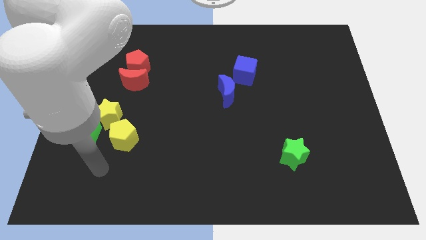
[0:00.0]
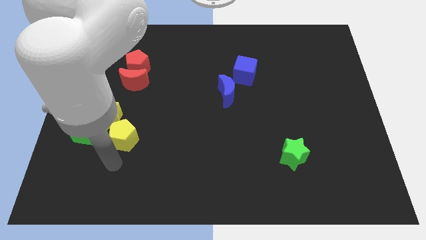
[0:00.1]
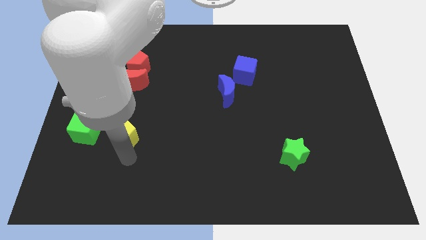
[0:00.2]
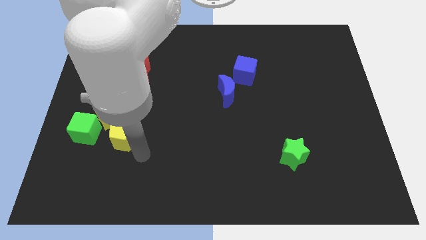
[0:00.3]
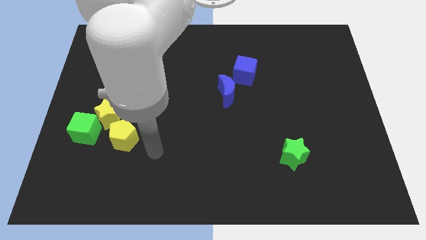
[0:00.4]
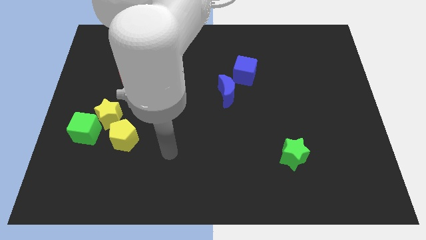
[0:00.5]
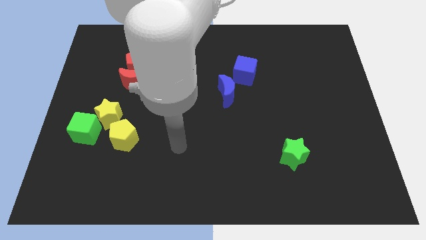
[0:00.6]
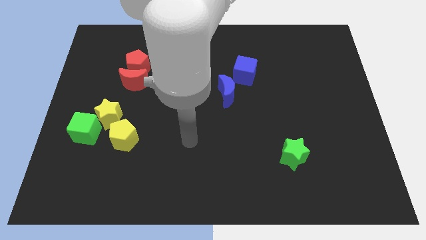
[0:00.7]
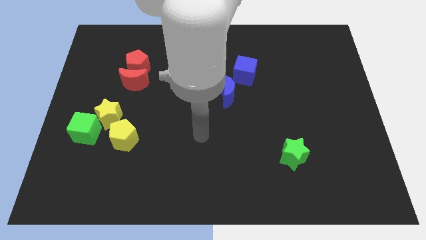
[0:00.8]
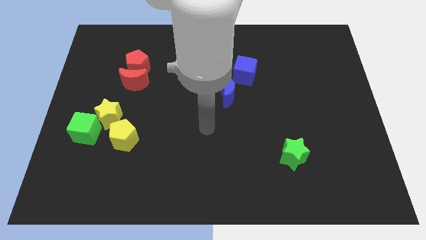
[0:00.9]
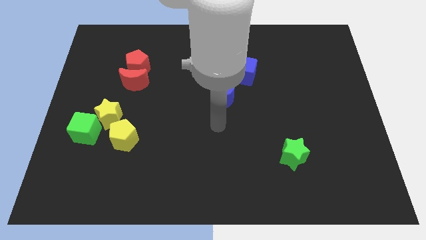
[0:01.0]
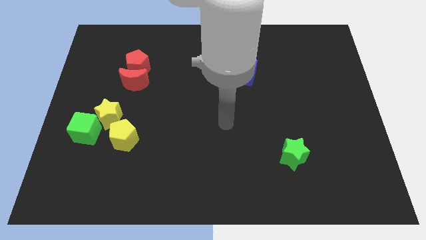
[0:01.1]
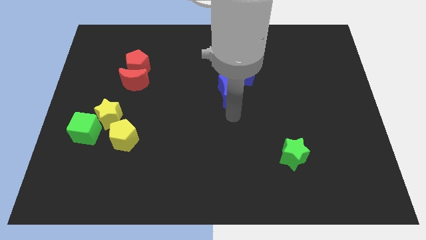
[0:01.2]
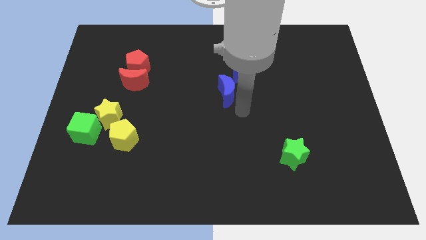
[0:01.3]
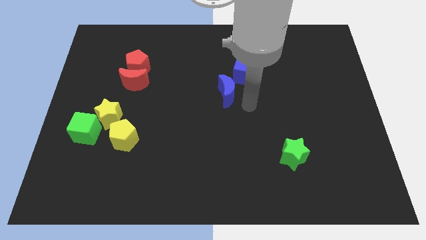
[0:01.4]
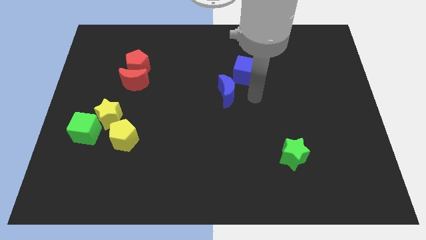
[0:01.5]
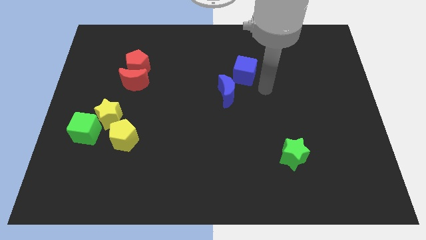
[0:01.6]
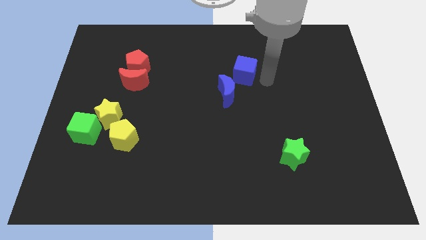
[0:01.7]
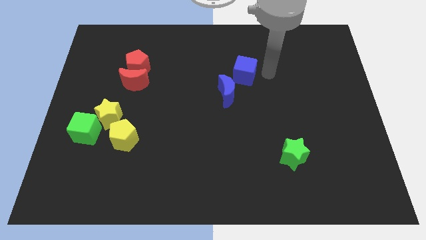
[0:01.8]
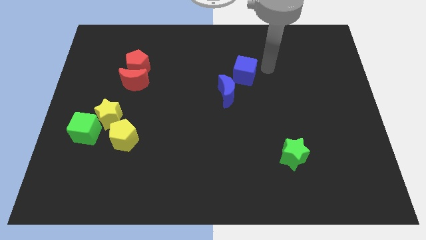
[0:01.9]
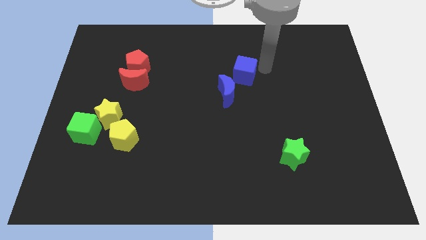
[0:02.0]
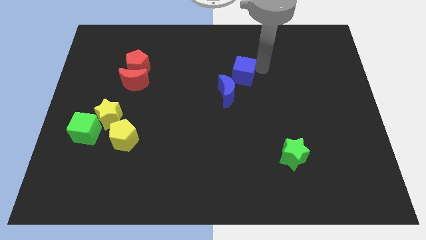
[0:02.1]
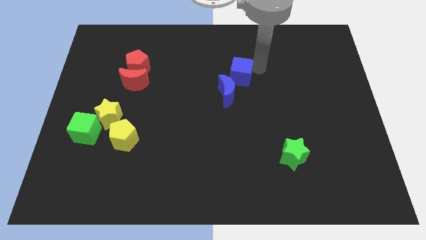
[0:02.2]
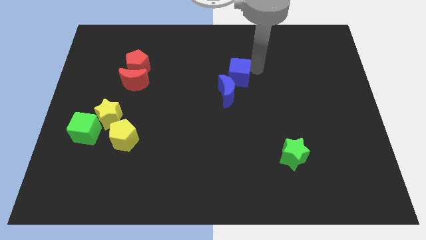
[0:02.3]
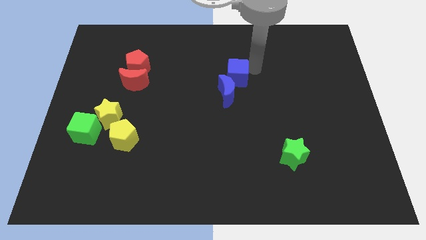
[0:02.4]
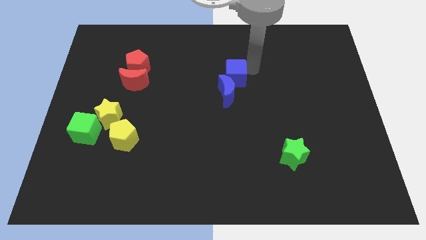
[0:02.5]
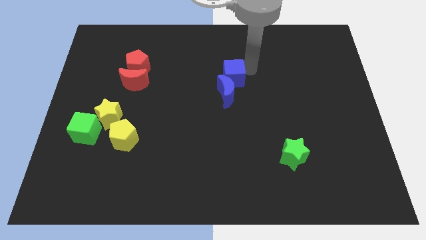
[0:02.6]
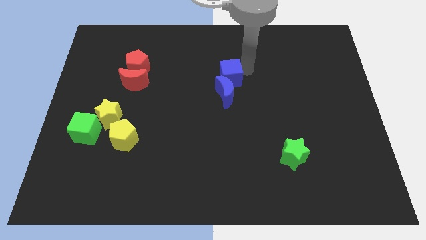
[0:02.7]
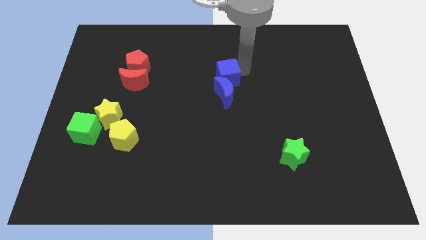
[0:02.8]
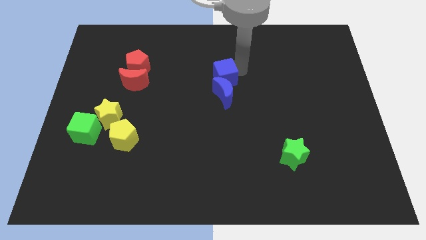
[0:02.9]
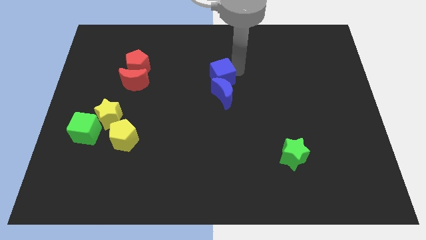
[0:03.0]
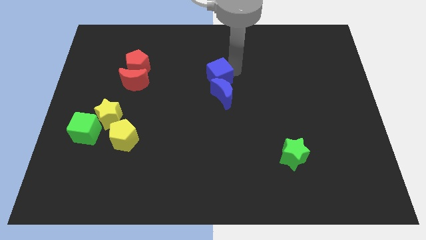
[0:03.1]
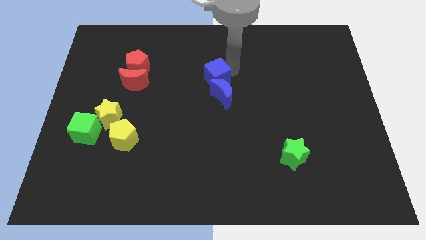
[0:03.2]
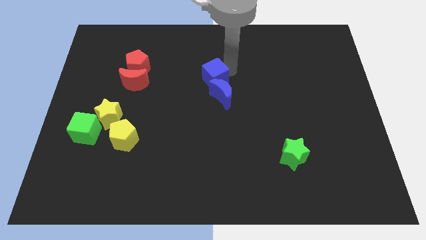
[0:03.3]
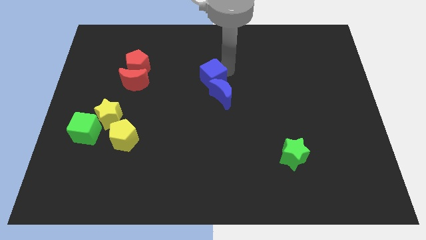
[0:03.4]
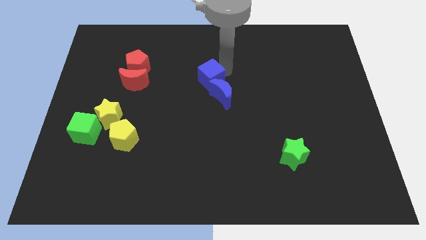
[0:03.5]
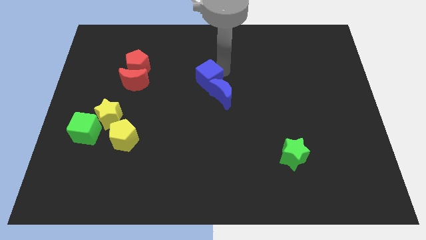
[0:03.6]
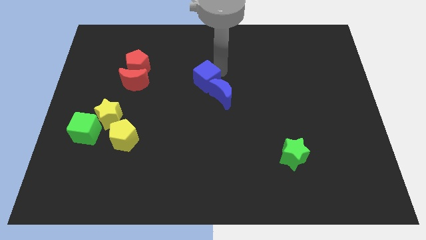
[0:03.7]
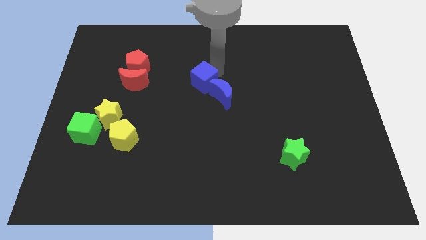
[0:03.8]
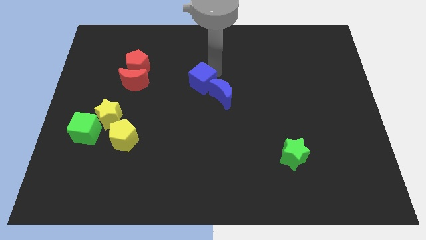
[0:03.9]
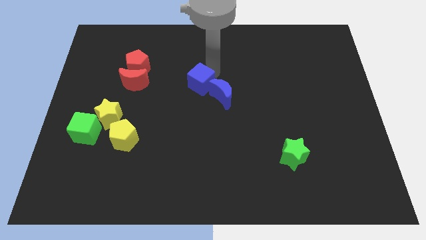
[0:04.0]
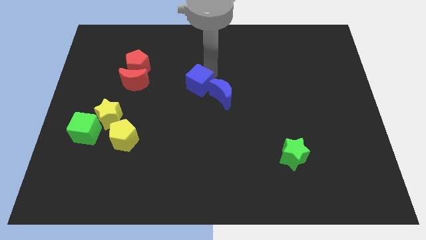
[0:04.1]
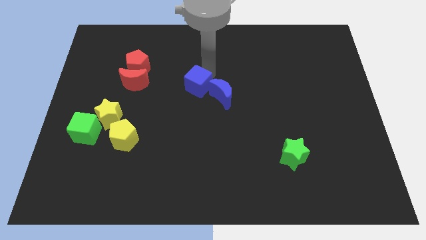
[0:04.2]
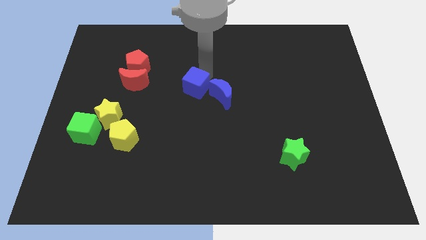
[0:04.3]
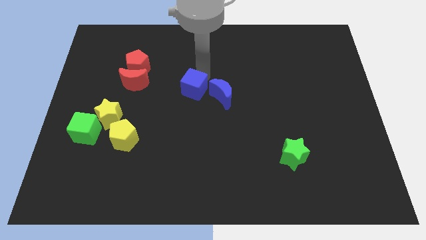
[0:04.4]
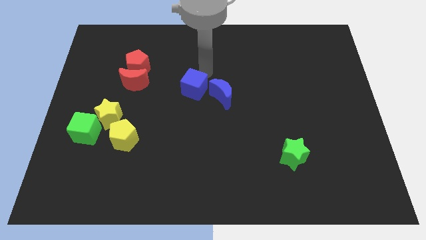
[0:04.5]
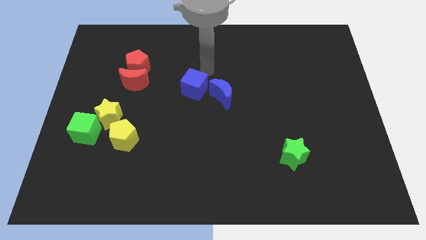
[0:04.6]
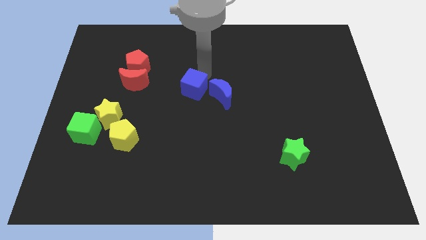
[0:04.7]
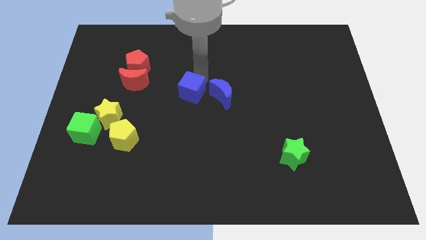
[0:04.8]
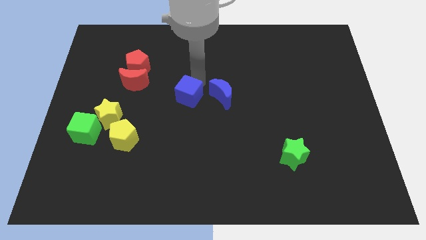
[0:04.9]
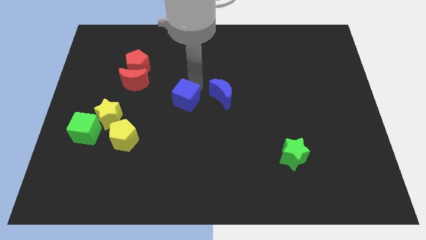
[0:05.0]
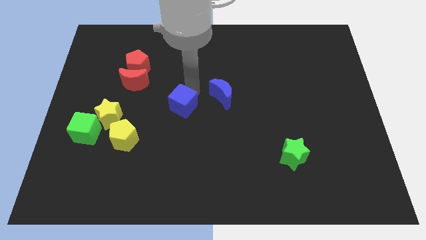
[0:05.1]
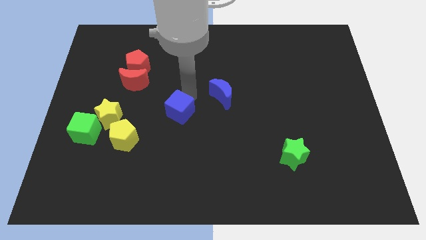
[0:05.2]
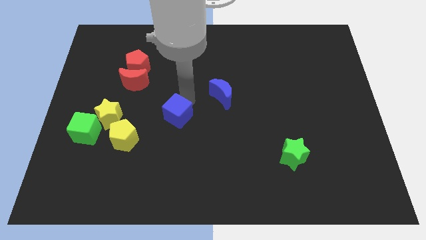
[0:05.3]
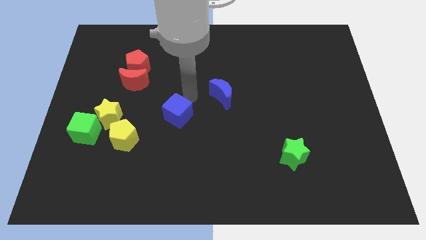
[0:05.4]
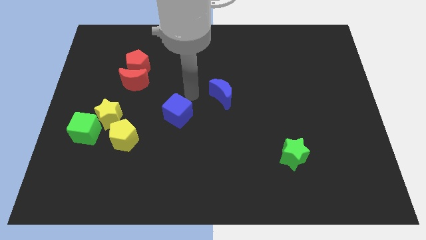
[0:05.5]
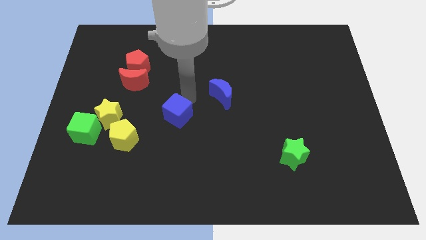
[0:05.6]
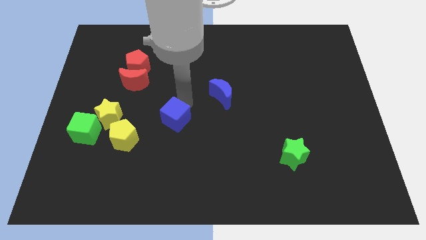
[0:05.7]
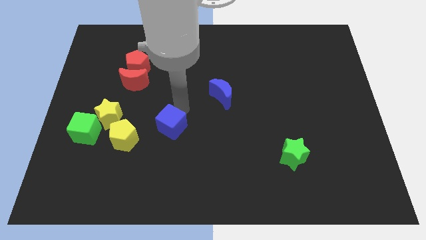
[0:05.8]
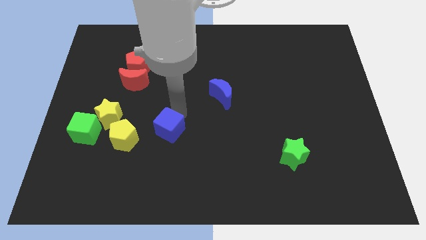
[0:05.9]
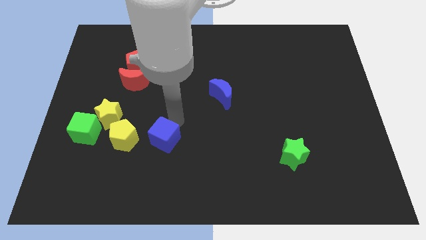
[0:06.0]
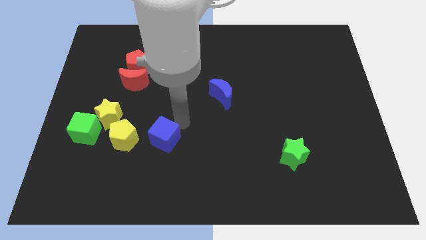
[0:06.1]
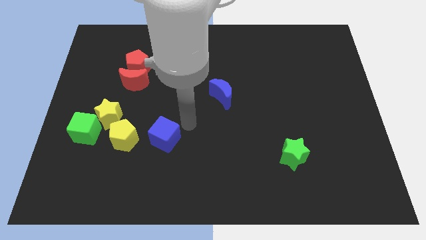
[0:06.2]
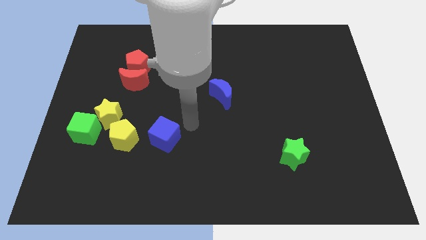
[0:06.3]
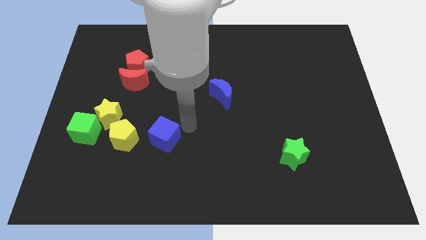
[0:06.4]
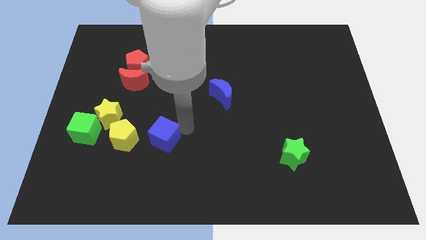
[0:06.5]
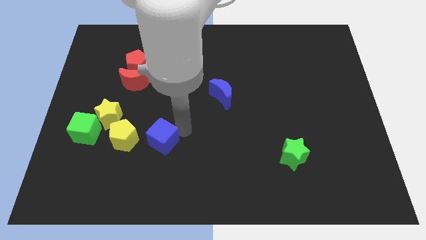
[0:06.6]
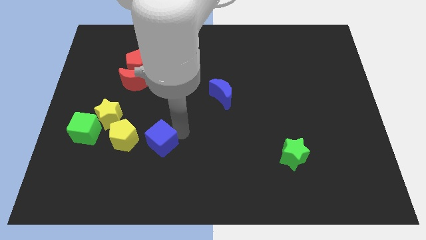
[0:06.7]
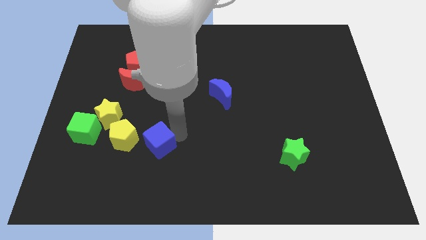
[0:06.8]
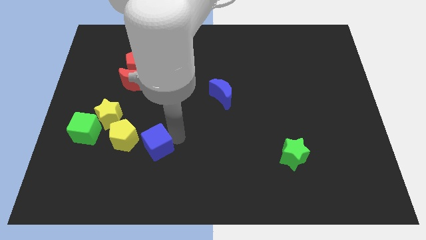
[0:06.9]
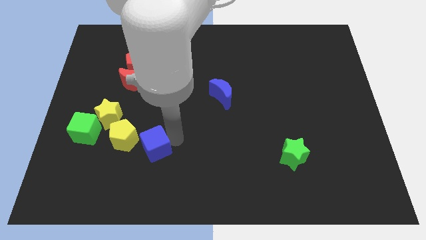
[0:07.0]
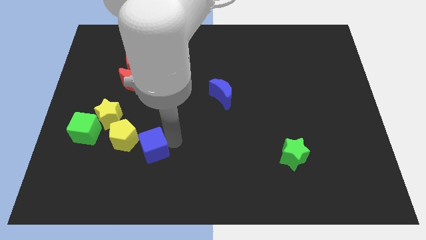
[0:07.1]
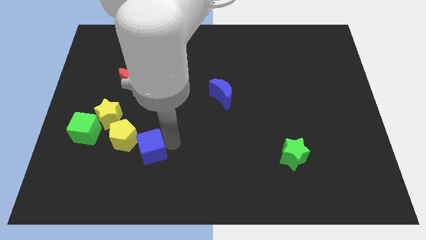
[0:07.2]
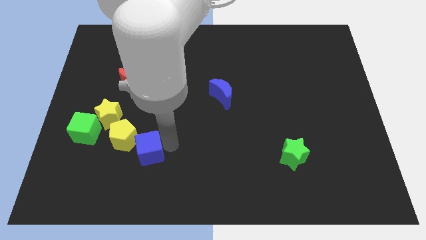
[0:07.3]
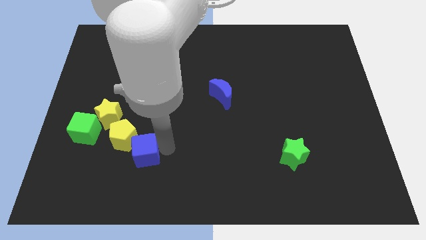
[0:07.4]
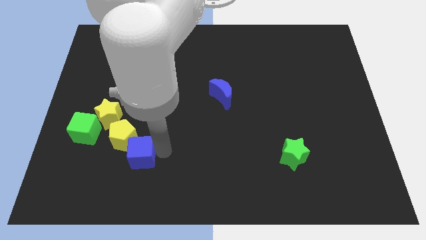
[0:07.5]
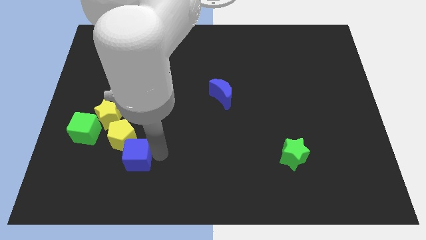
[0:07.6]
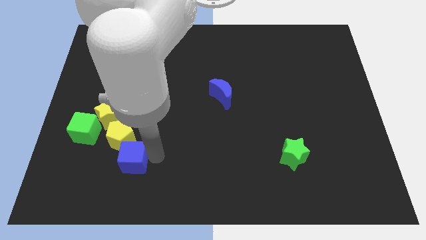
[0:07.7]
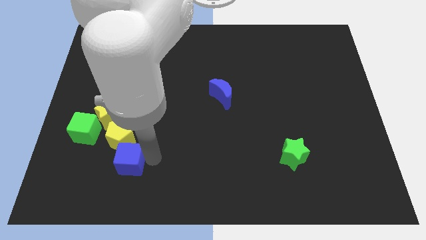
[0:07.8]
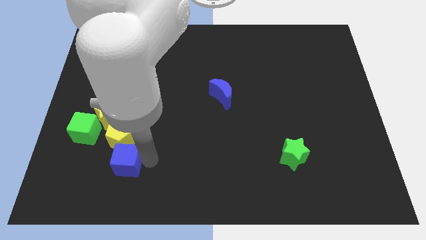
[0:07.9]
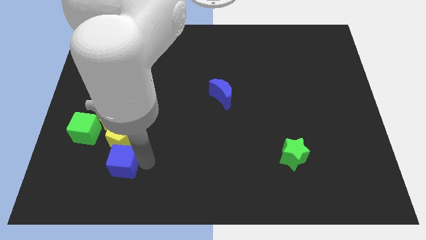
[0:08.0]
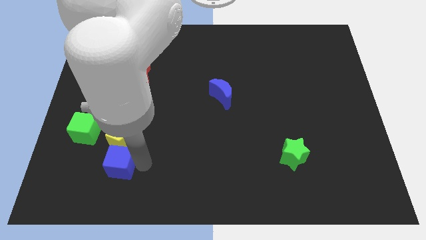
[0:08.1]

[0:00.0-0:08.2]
put the blue cube below the yellow star
